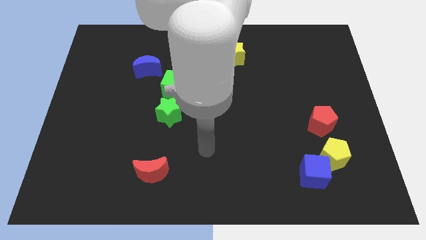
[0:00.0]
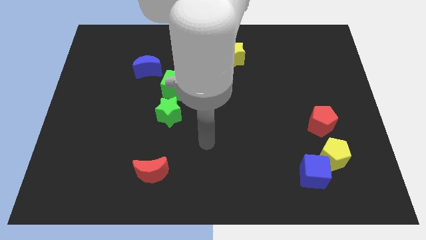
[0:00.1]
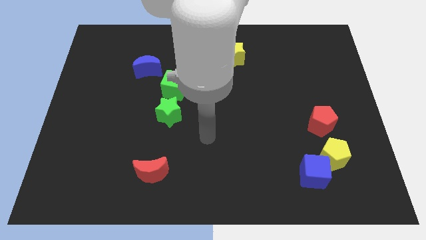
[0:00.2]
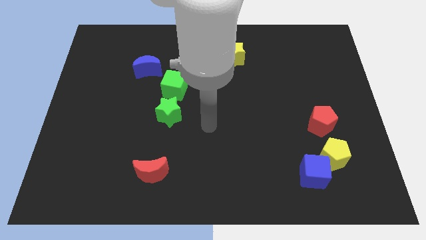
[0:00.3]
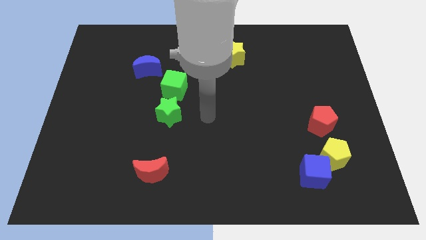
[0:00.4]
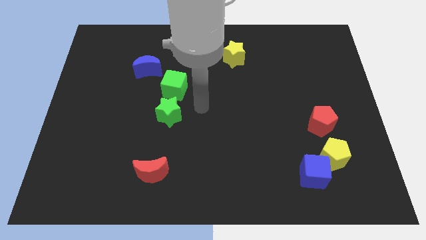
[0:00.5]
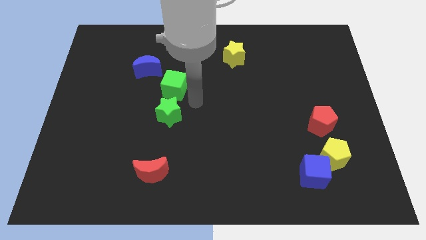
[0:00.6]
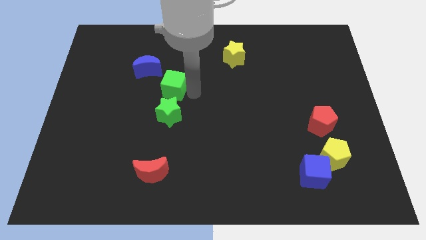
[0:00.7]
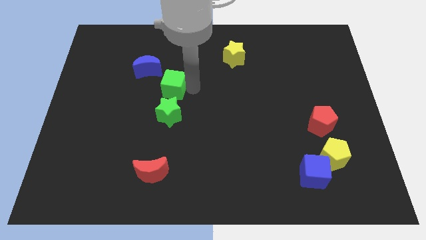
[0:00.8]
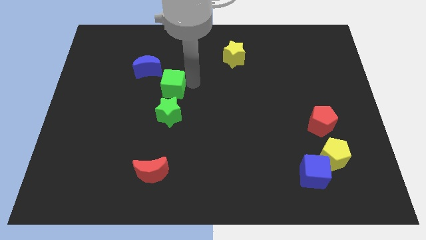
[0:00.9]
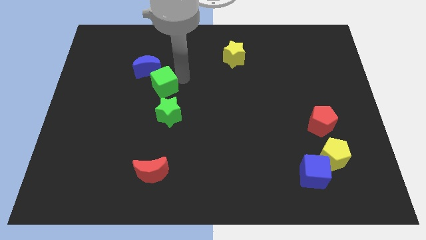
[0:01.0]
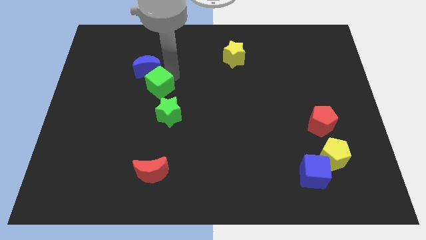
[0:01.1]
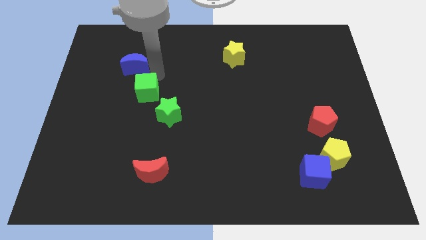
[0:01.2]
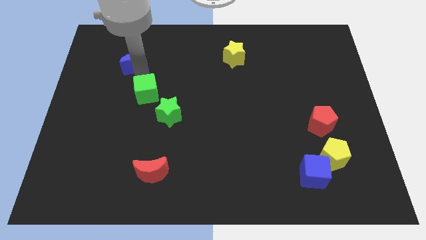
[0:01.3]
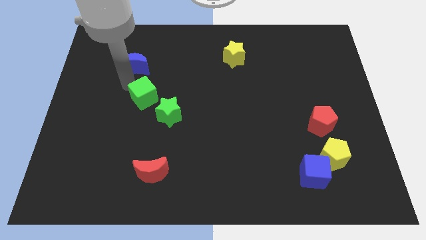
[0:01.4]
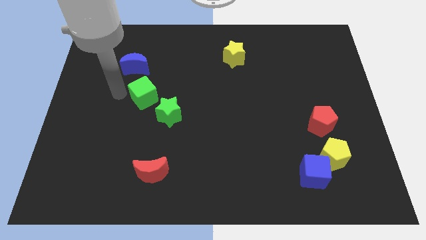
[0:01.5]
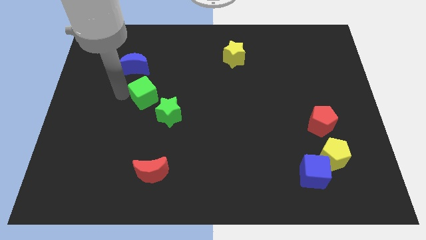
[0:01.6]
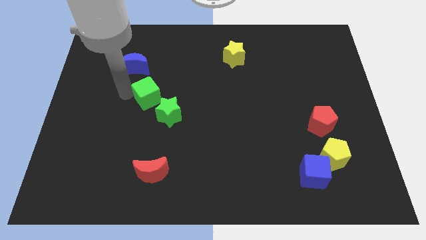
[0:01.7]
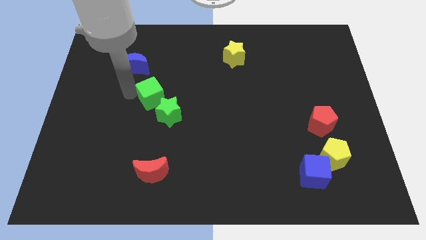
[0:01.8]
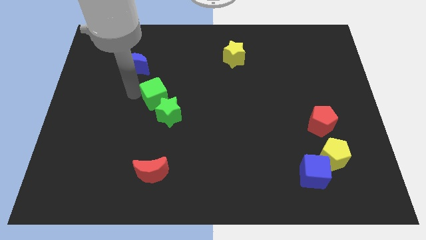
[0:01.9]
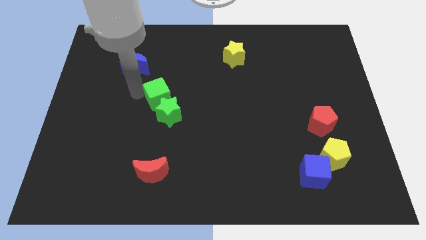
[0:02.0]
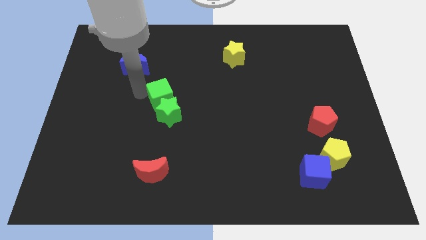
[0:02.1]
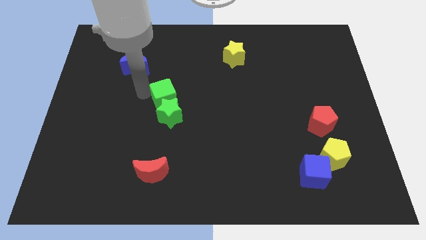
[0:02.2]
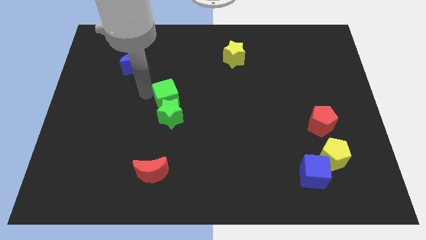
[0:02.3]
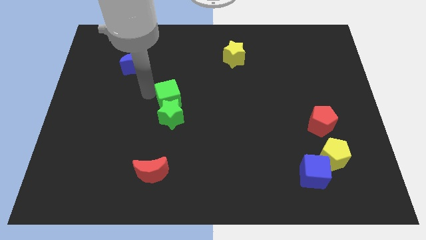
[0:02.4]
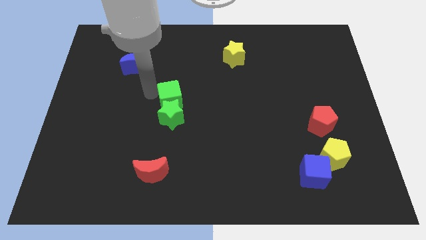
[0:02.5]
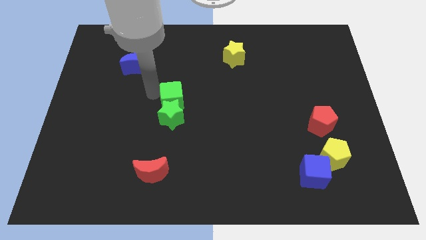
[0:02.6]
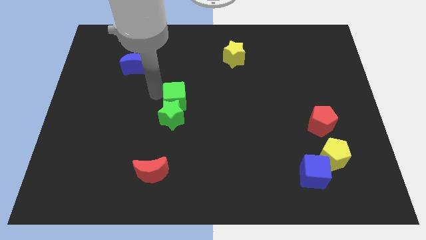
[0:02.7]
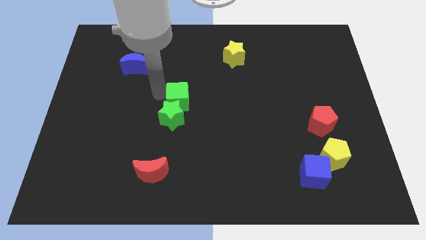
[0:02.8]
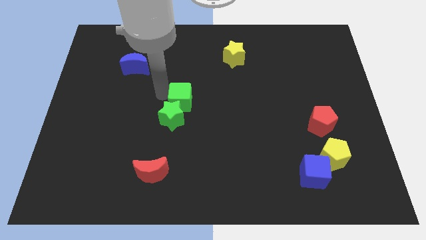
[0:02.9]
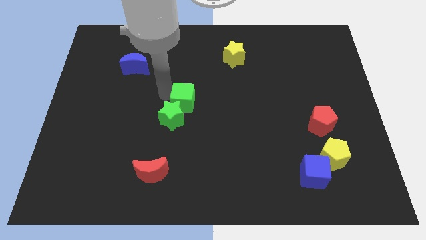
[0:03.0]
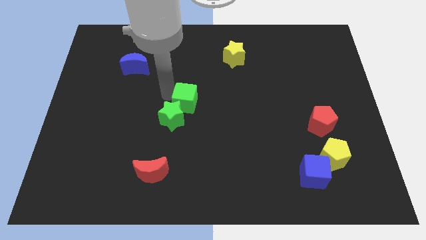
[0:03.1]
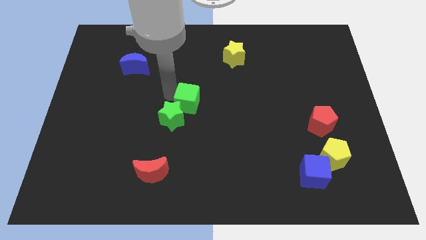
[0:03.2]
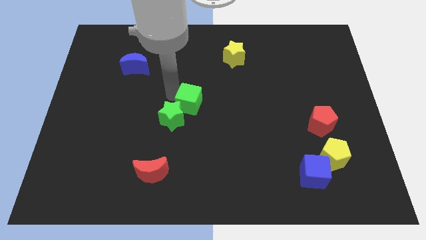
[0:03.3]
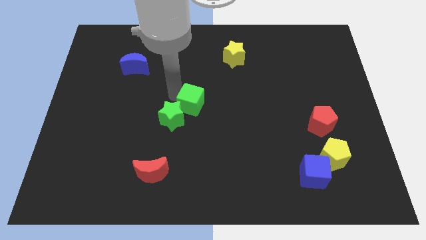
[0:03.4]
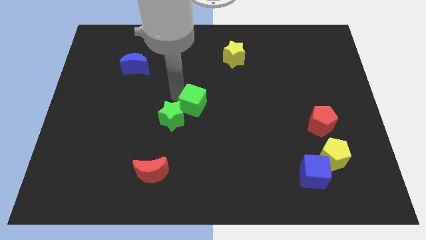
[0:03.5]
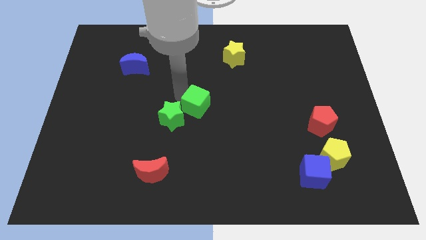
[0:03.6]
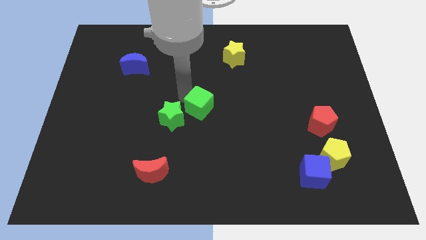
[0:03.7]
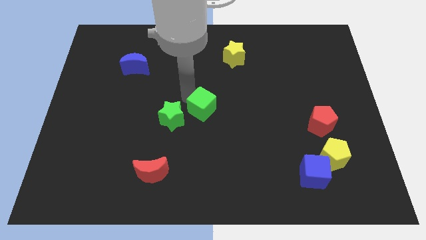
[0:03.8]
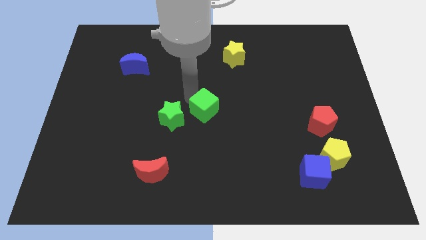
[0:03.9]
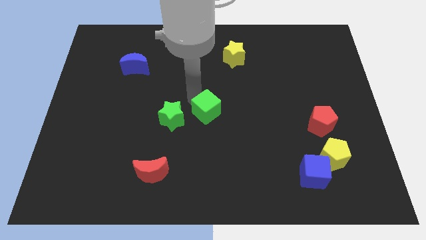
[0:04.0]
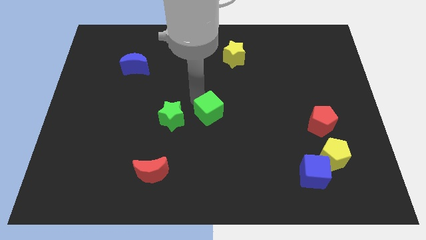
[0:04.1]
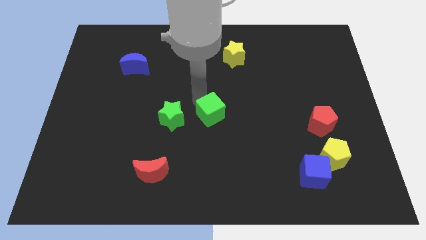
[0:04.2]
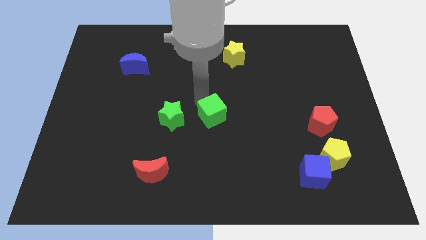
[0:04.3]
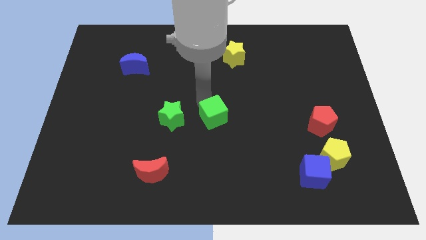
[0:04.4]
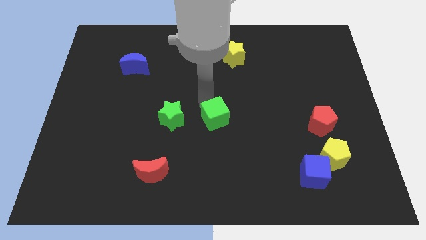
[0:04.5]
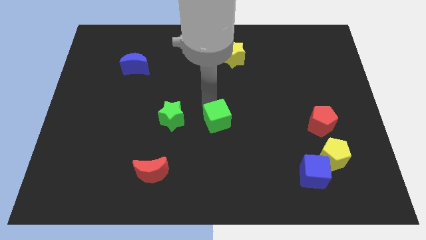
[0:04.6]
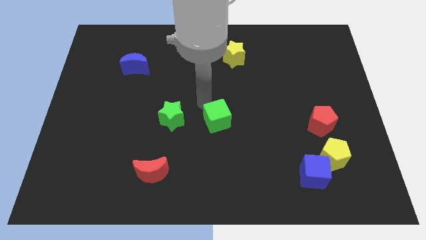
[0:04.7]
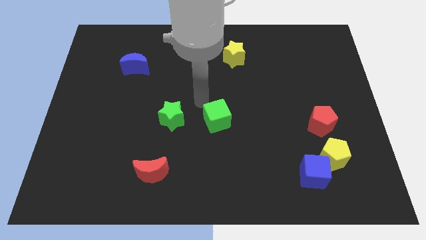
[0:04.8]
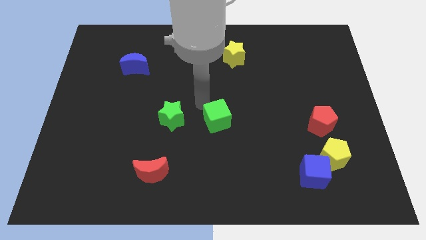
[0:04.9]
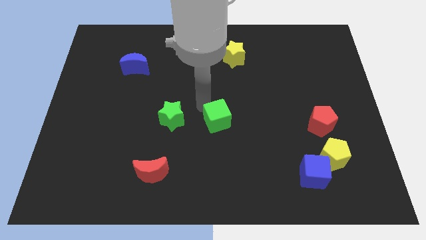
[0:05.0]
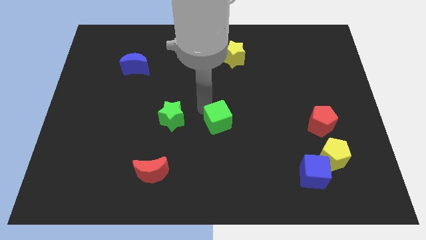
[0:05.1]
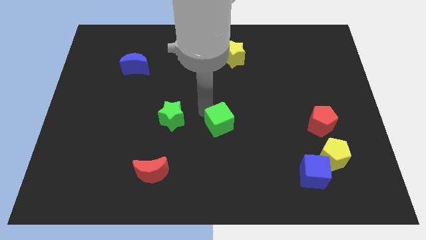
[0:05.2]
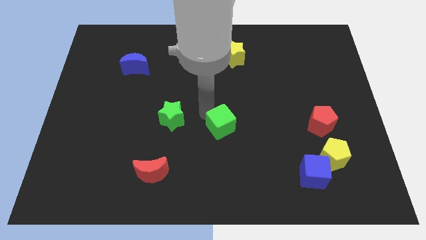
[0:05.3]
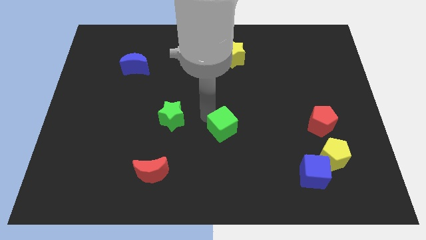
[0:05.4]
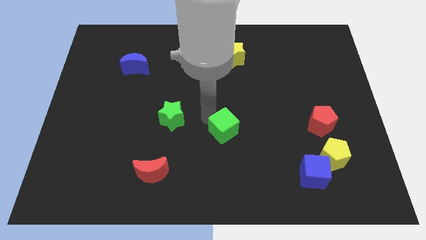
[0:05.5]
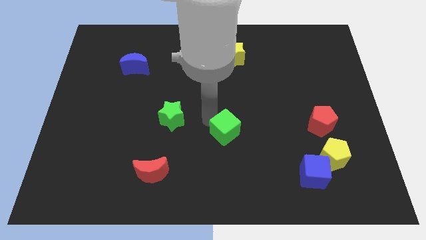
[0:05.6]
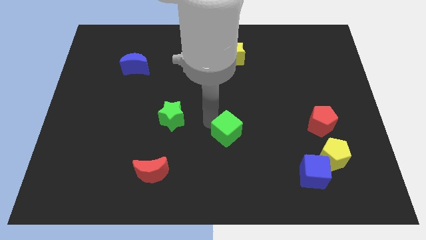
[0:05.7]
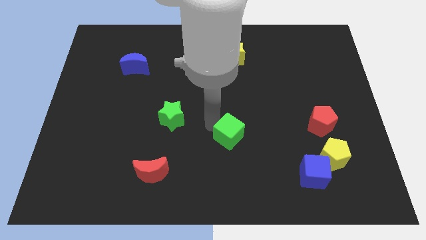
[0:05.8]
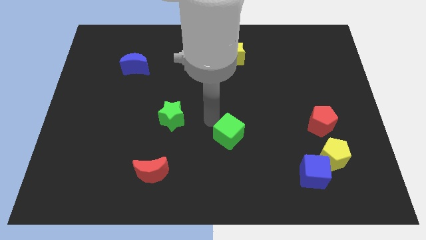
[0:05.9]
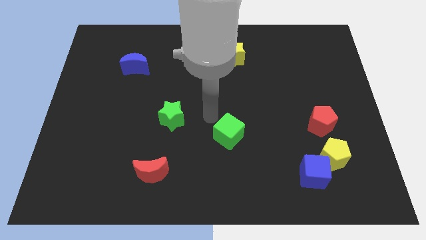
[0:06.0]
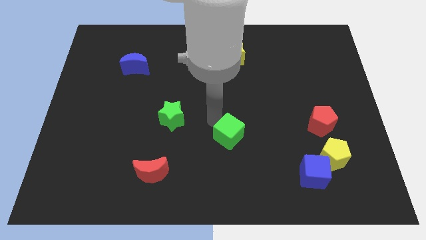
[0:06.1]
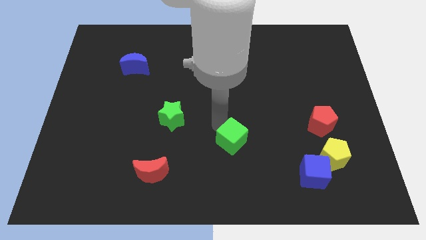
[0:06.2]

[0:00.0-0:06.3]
slide the green cube downwards and to the right diagonally

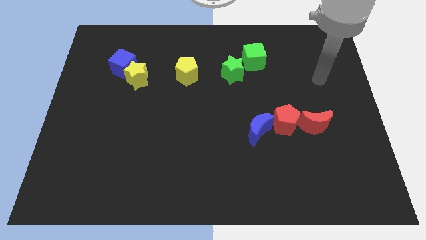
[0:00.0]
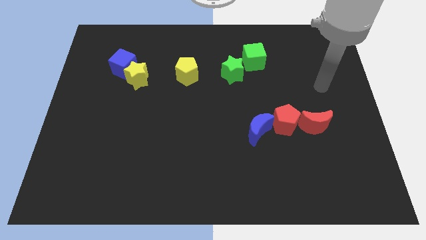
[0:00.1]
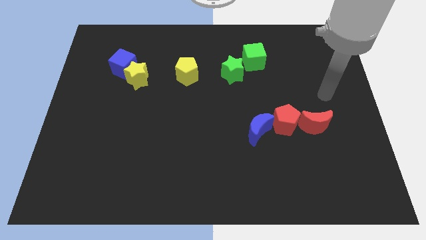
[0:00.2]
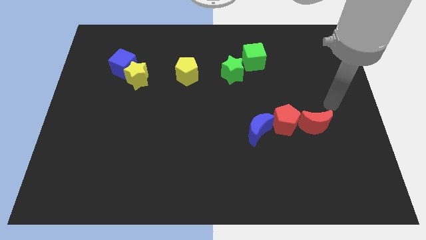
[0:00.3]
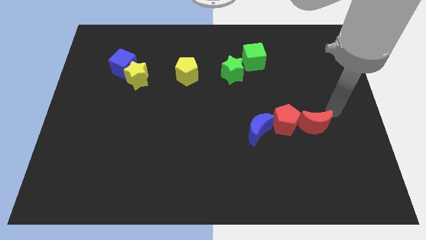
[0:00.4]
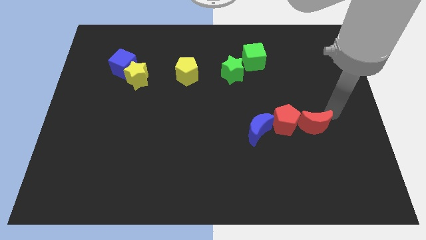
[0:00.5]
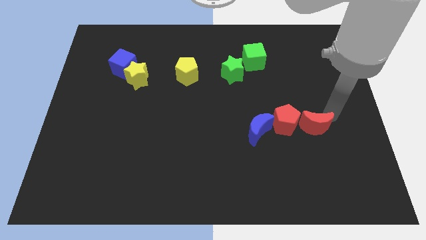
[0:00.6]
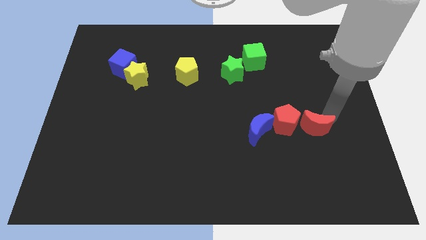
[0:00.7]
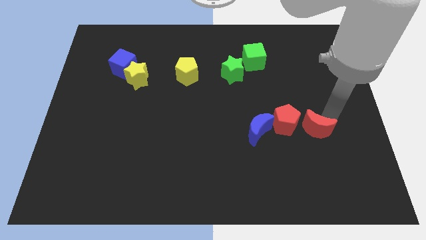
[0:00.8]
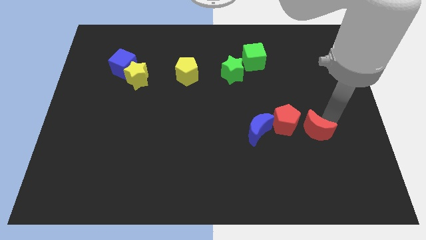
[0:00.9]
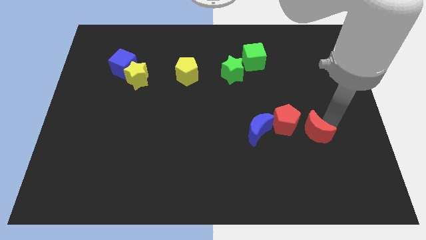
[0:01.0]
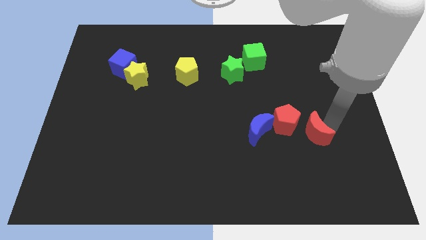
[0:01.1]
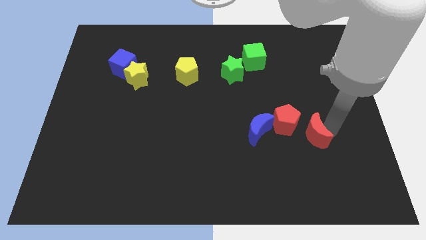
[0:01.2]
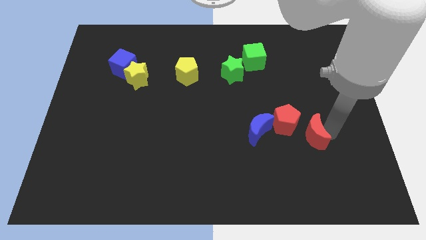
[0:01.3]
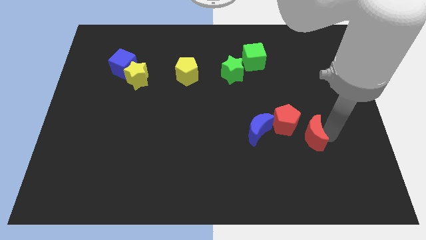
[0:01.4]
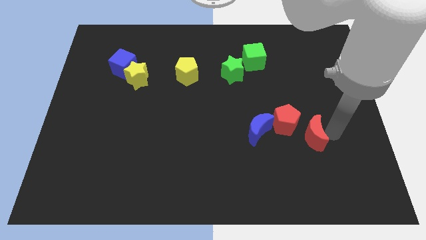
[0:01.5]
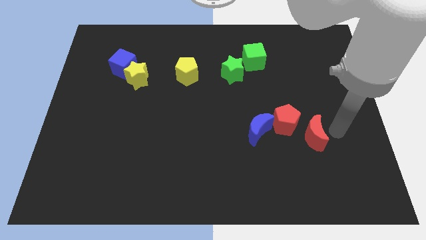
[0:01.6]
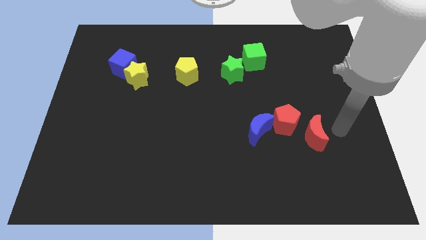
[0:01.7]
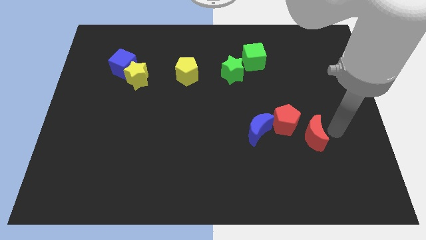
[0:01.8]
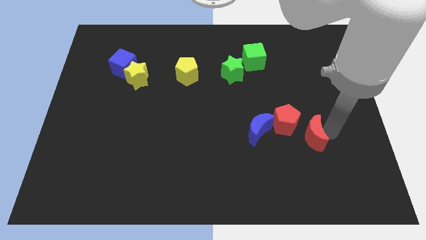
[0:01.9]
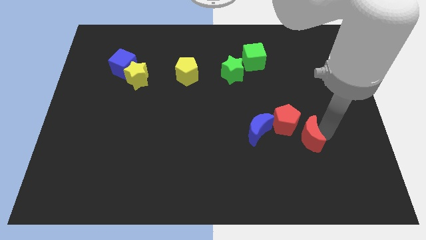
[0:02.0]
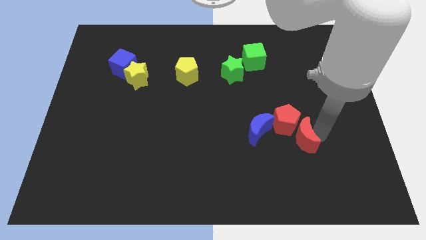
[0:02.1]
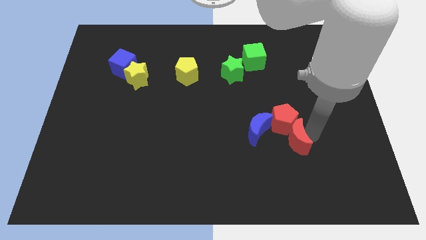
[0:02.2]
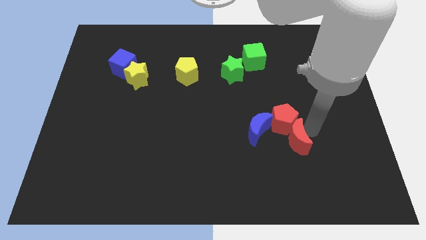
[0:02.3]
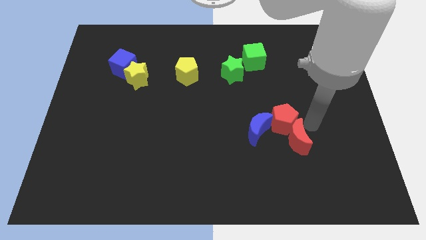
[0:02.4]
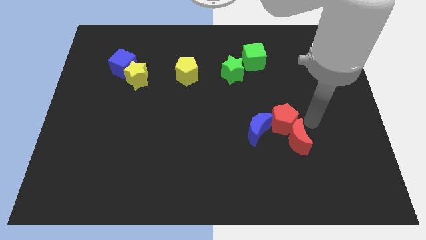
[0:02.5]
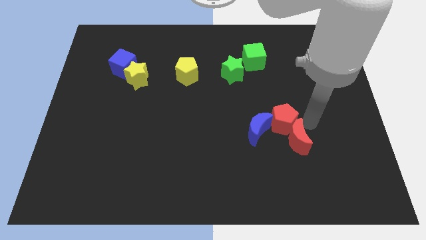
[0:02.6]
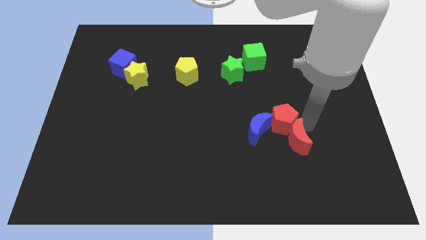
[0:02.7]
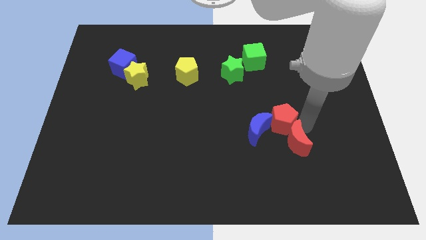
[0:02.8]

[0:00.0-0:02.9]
slightly slide the red moon down and left diagonally
